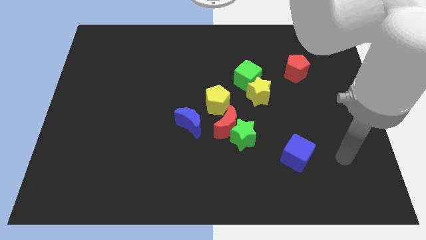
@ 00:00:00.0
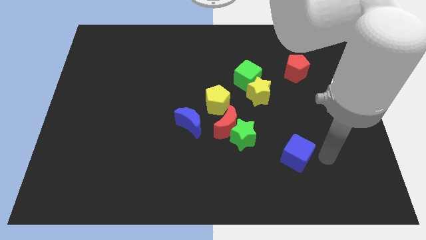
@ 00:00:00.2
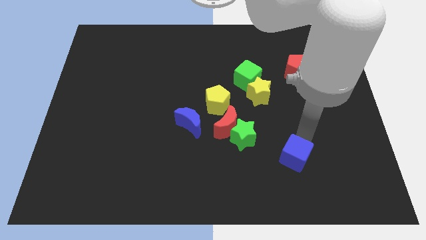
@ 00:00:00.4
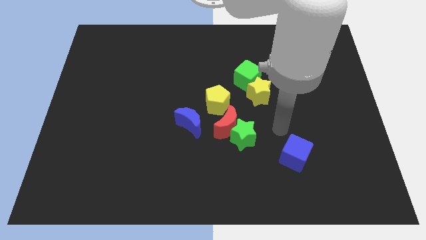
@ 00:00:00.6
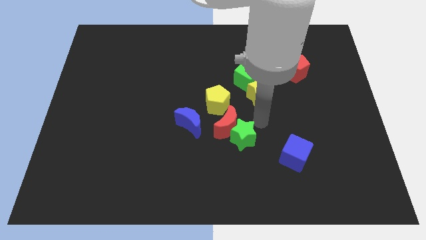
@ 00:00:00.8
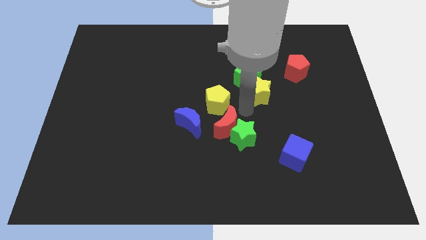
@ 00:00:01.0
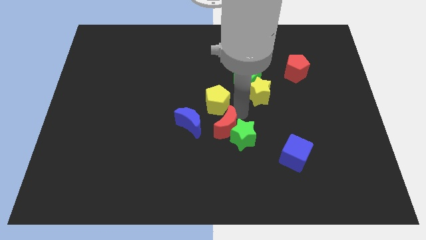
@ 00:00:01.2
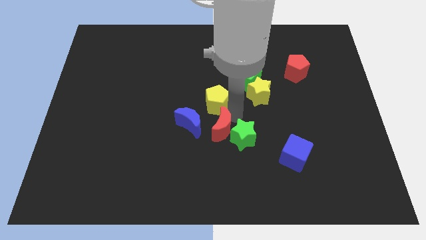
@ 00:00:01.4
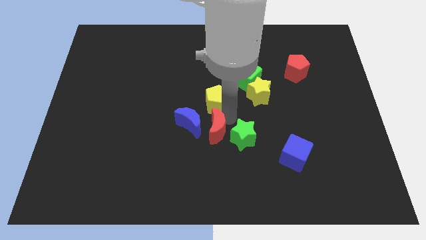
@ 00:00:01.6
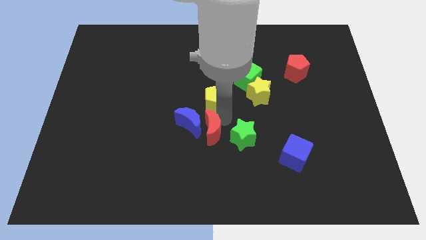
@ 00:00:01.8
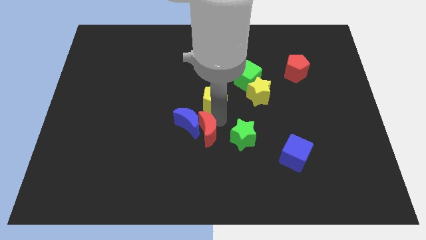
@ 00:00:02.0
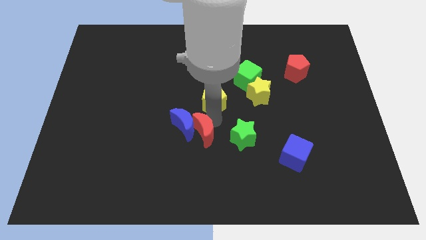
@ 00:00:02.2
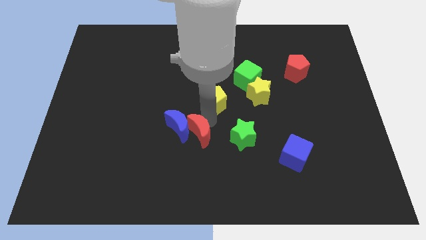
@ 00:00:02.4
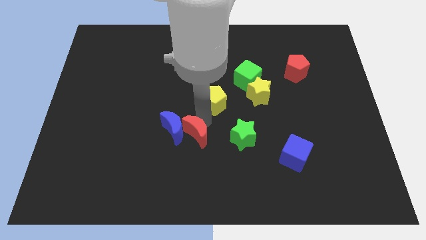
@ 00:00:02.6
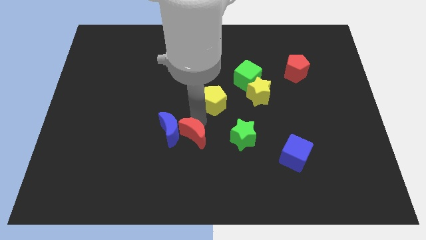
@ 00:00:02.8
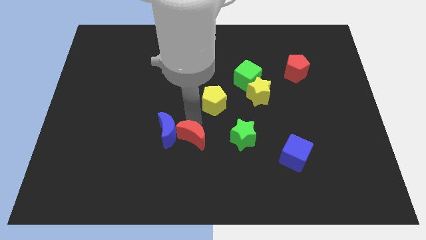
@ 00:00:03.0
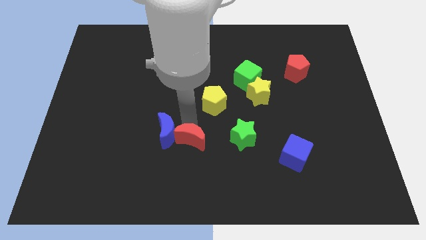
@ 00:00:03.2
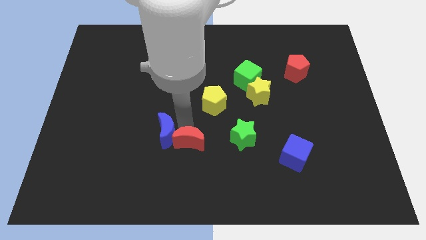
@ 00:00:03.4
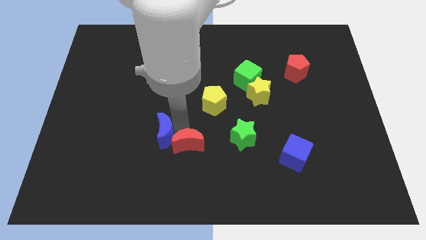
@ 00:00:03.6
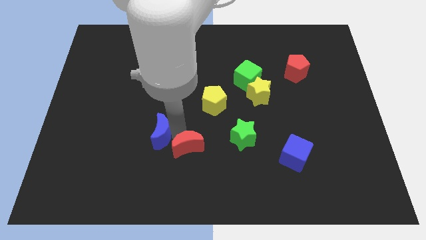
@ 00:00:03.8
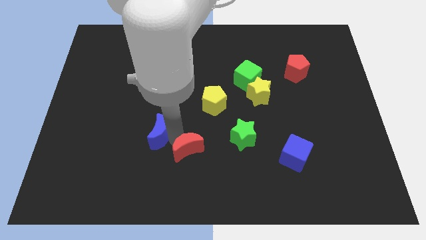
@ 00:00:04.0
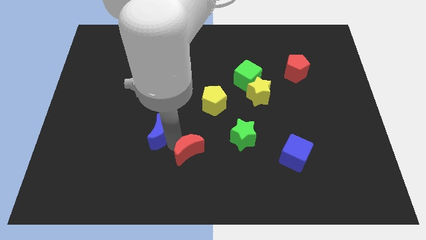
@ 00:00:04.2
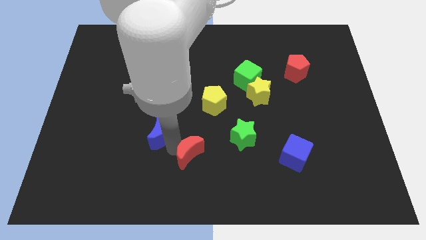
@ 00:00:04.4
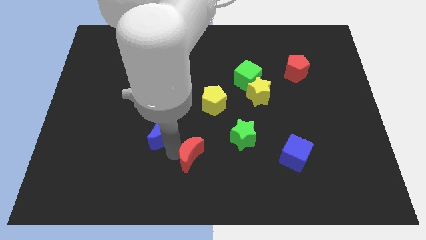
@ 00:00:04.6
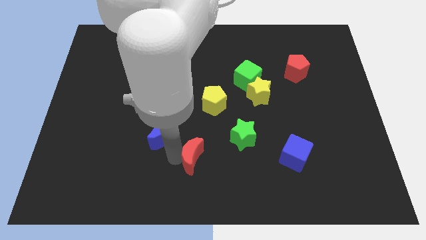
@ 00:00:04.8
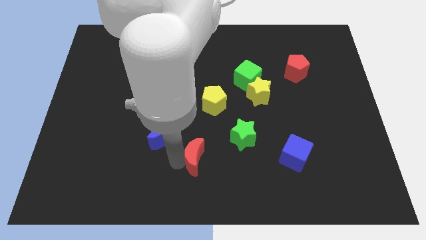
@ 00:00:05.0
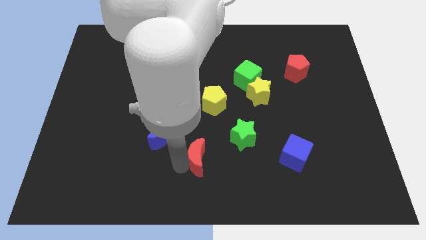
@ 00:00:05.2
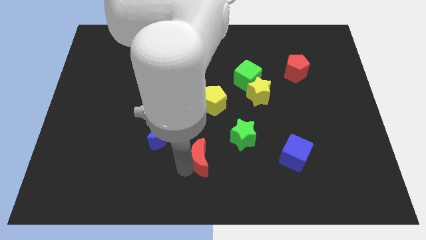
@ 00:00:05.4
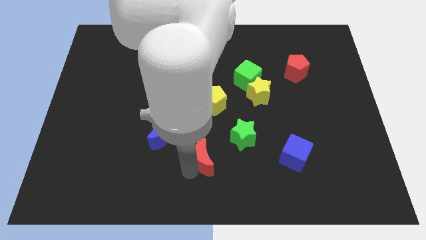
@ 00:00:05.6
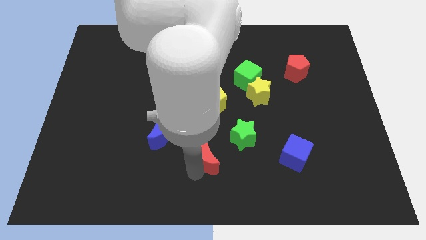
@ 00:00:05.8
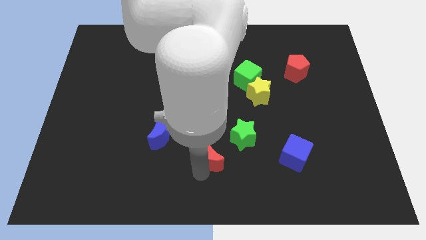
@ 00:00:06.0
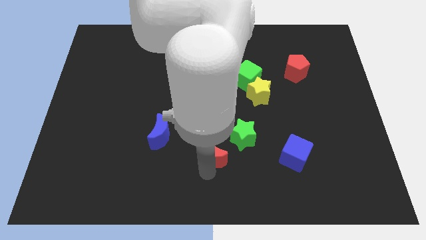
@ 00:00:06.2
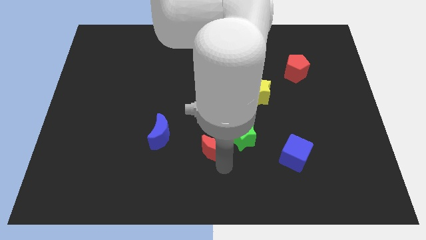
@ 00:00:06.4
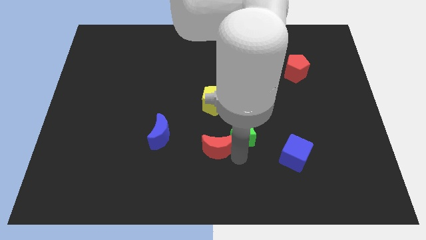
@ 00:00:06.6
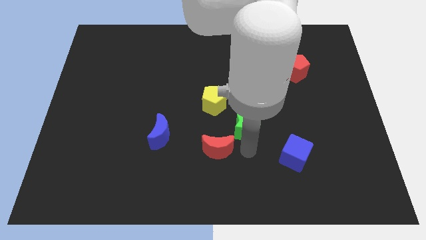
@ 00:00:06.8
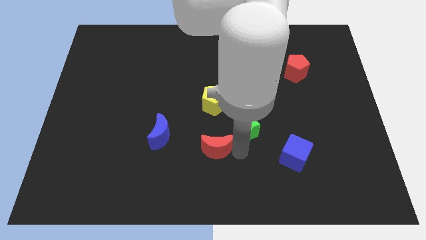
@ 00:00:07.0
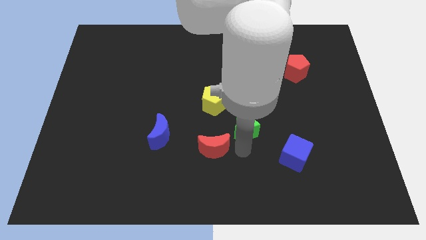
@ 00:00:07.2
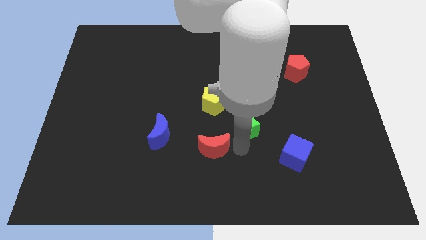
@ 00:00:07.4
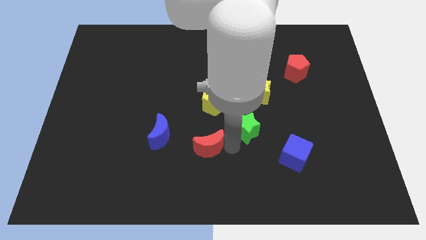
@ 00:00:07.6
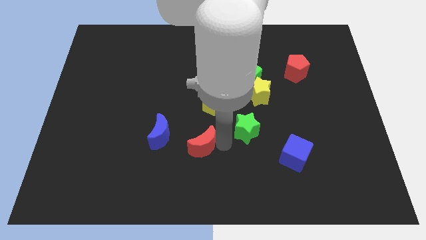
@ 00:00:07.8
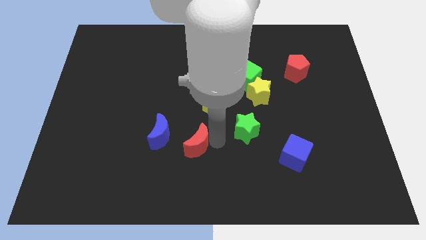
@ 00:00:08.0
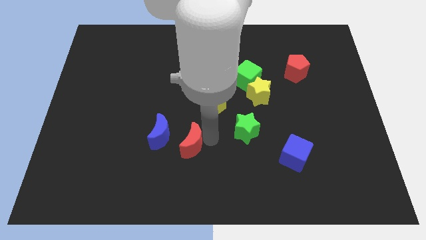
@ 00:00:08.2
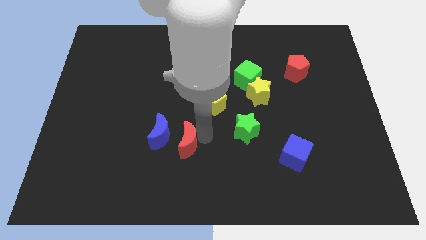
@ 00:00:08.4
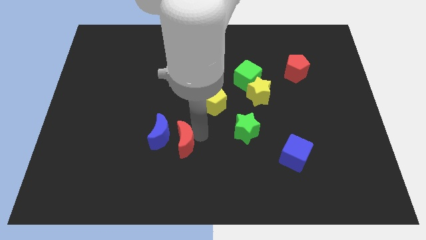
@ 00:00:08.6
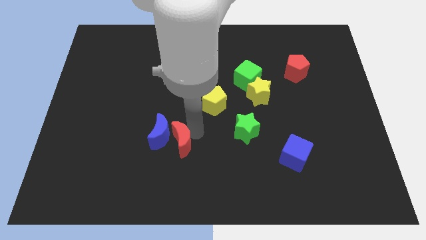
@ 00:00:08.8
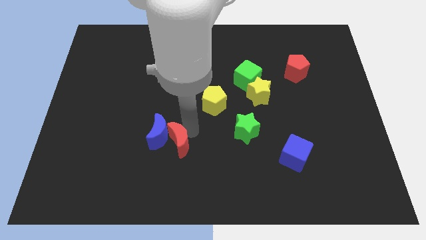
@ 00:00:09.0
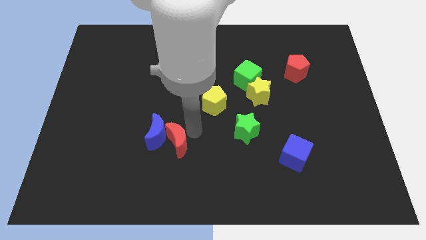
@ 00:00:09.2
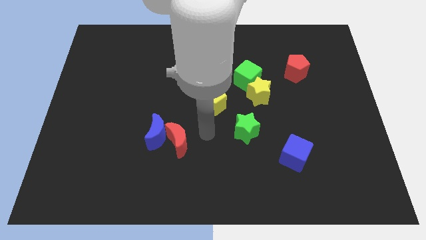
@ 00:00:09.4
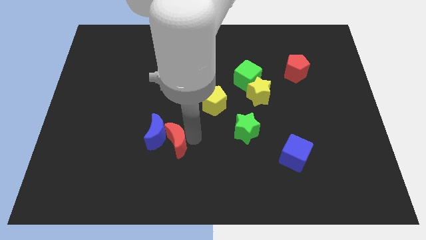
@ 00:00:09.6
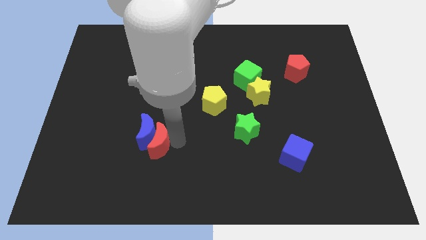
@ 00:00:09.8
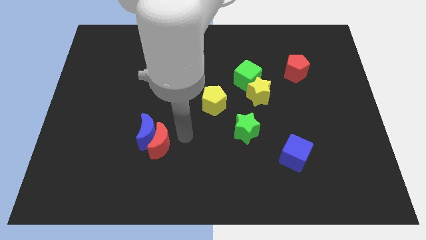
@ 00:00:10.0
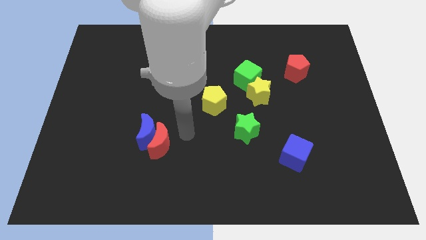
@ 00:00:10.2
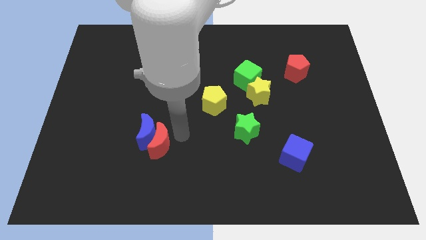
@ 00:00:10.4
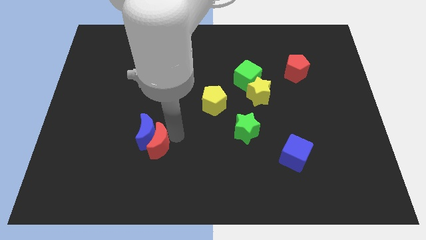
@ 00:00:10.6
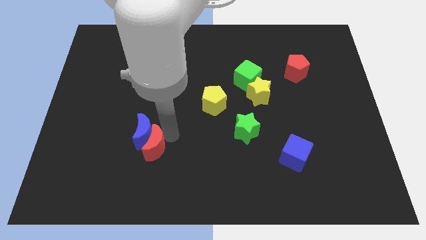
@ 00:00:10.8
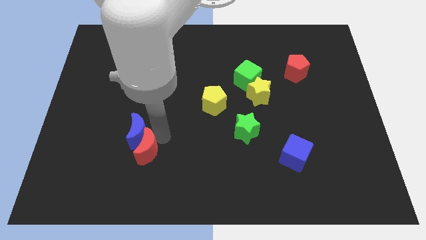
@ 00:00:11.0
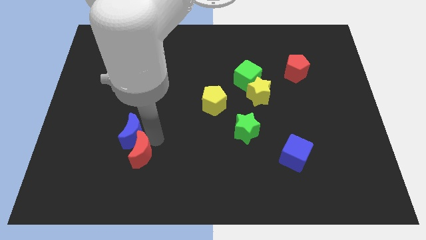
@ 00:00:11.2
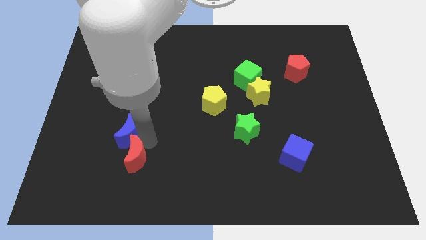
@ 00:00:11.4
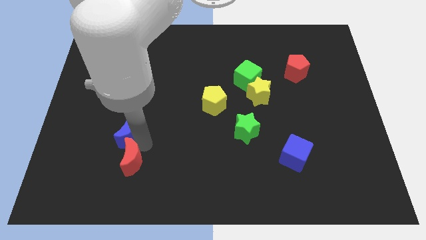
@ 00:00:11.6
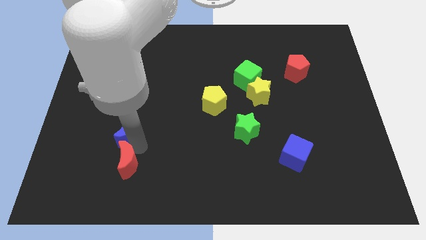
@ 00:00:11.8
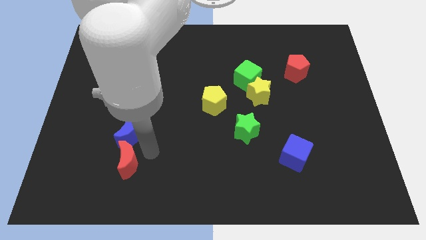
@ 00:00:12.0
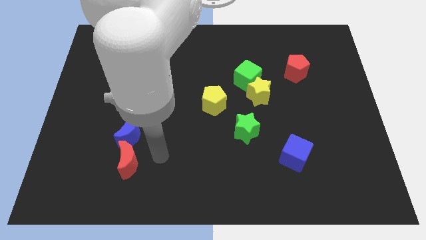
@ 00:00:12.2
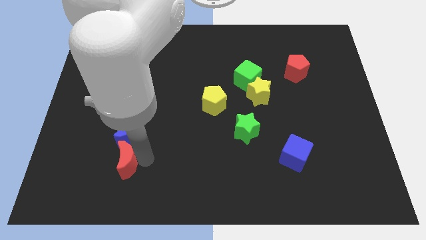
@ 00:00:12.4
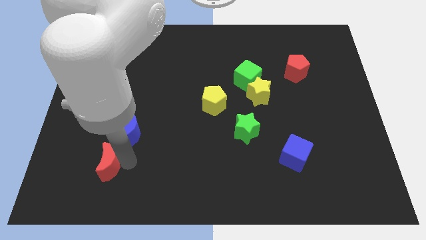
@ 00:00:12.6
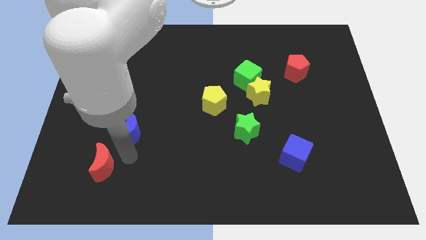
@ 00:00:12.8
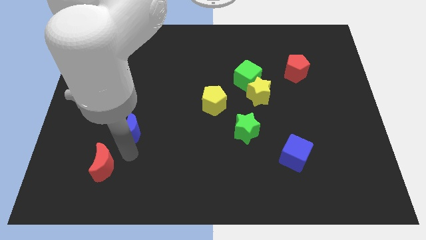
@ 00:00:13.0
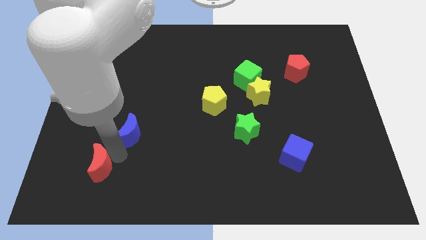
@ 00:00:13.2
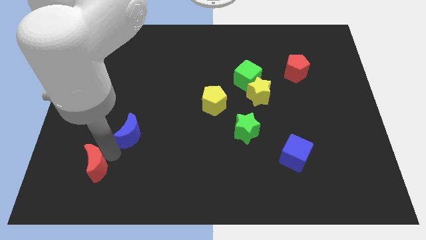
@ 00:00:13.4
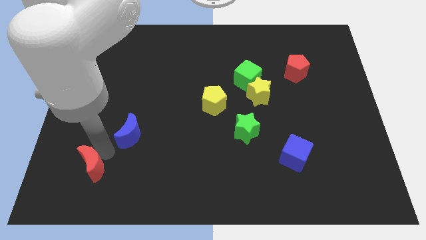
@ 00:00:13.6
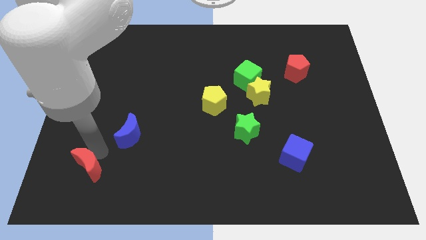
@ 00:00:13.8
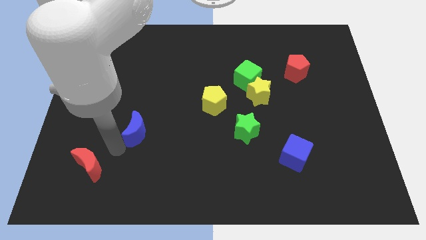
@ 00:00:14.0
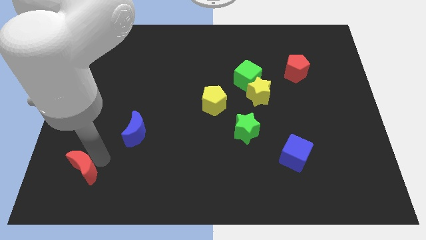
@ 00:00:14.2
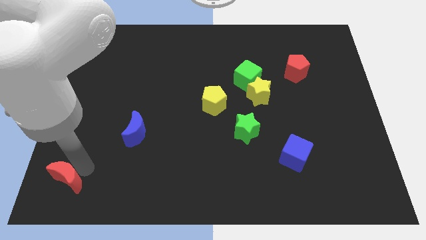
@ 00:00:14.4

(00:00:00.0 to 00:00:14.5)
move the red moon to the bottom left

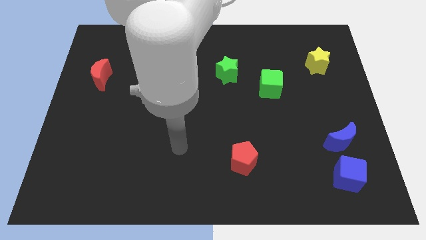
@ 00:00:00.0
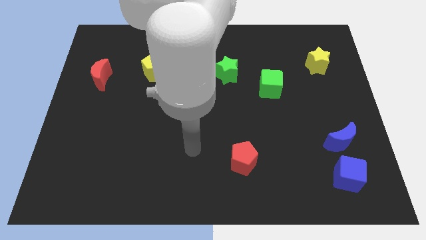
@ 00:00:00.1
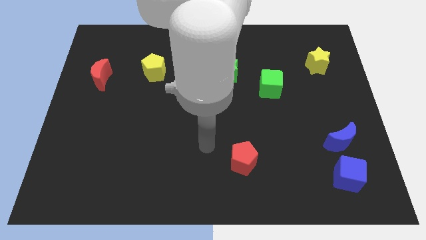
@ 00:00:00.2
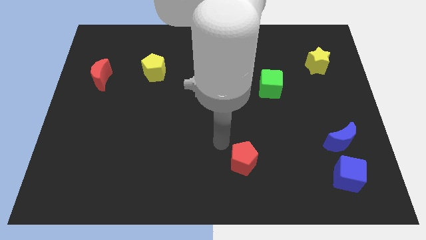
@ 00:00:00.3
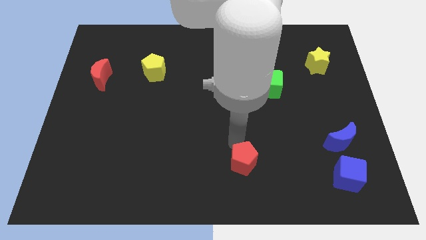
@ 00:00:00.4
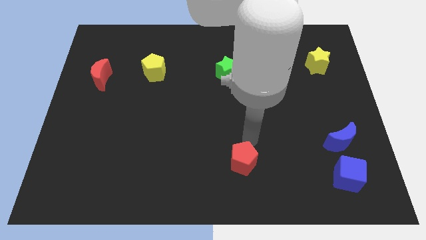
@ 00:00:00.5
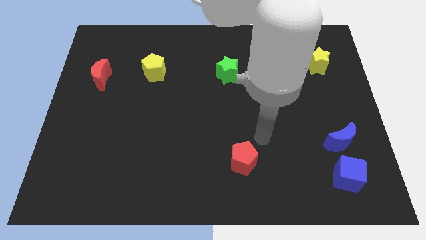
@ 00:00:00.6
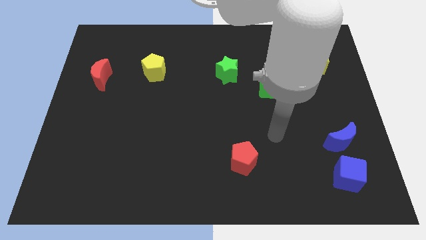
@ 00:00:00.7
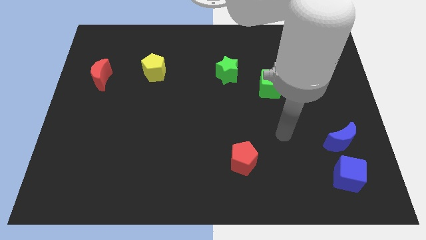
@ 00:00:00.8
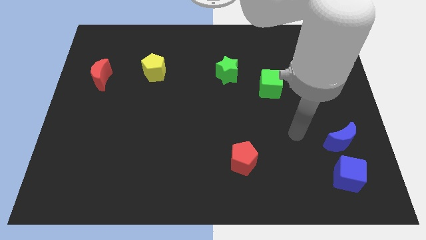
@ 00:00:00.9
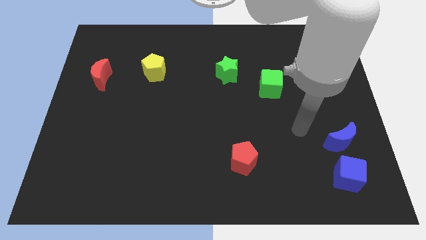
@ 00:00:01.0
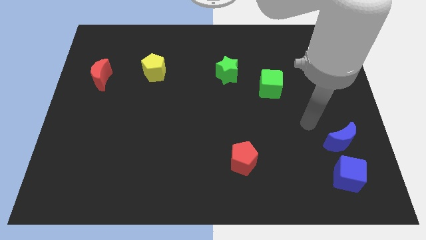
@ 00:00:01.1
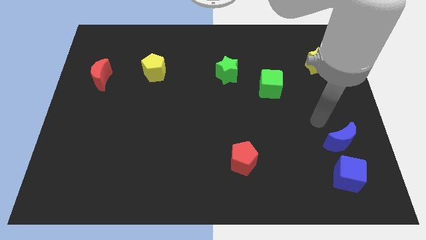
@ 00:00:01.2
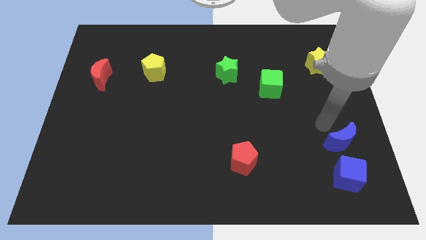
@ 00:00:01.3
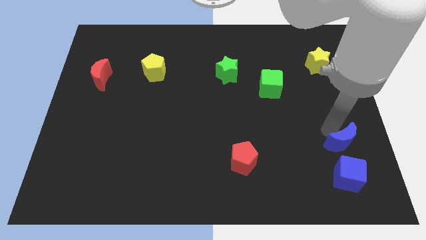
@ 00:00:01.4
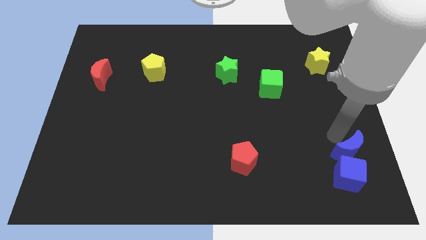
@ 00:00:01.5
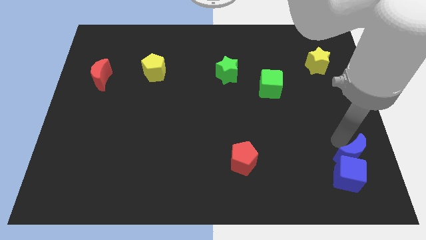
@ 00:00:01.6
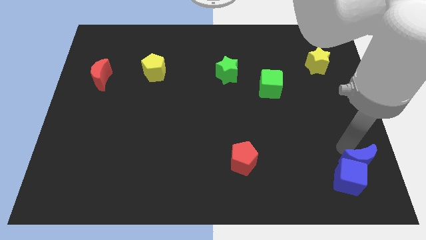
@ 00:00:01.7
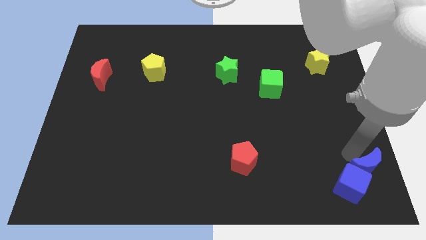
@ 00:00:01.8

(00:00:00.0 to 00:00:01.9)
move the blue moon to the bottom right corner
